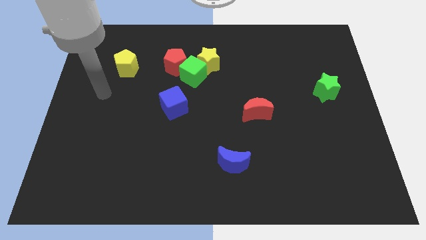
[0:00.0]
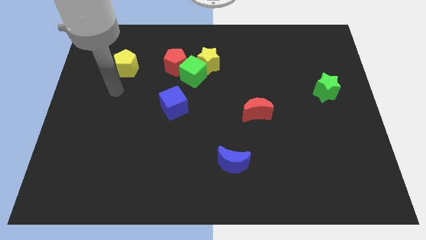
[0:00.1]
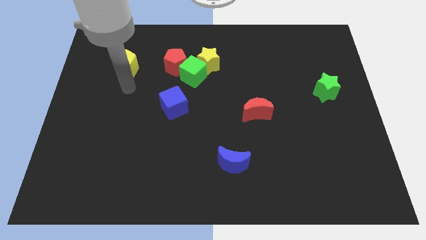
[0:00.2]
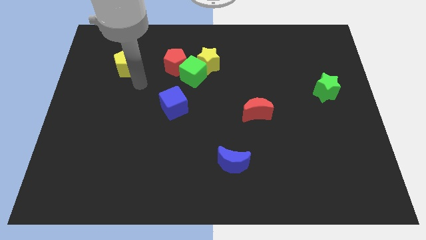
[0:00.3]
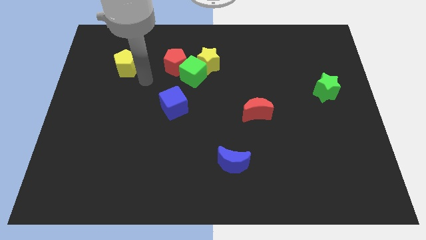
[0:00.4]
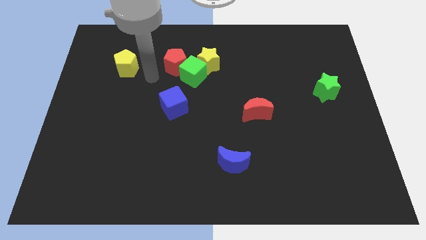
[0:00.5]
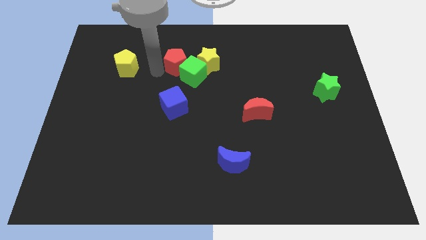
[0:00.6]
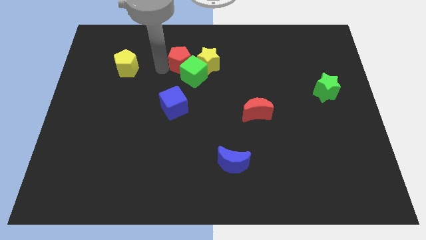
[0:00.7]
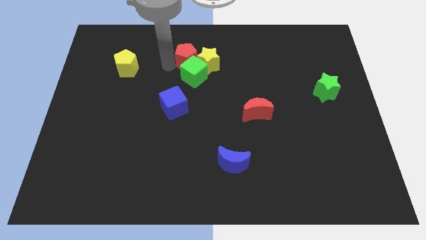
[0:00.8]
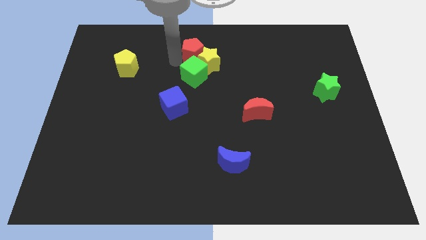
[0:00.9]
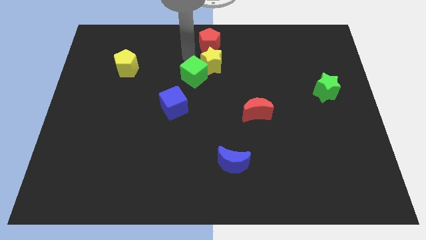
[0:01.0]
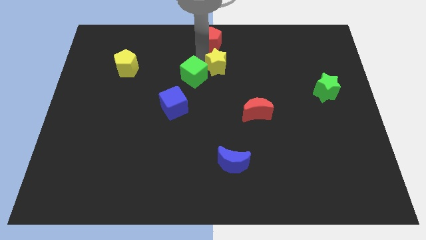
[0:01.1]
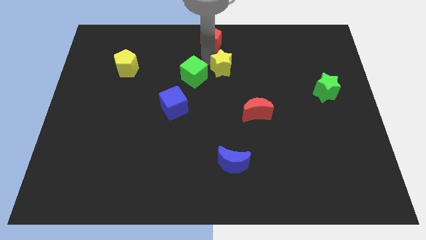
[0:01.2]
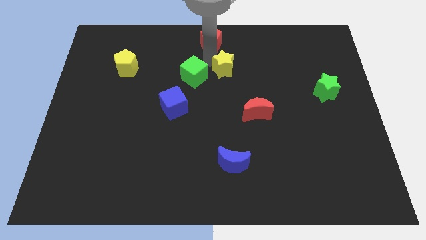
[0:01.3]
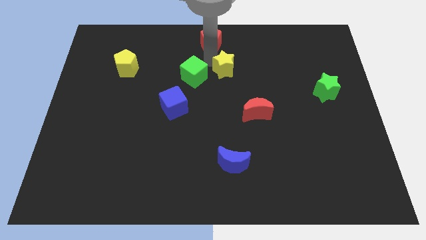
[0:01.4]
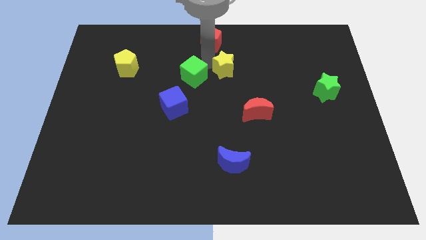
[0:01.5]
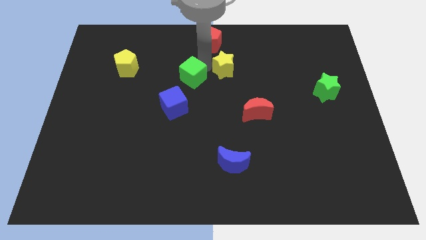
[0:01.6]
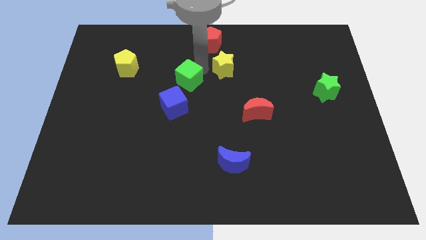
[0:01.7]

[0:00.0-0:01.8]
move the green cube away from the yellow star and red pentagon

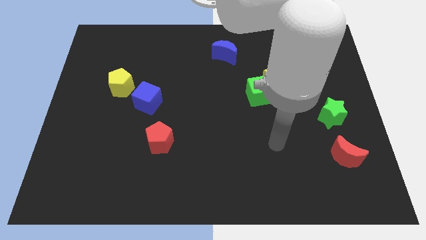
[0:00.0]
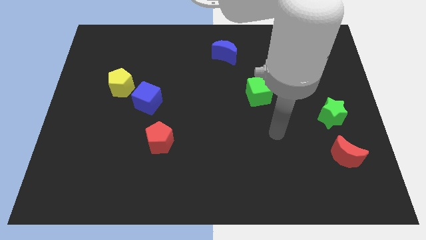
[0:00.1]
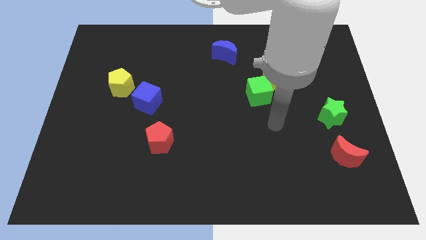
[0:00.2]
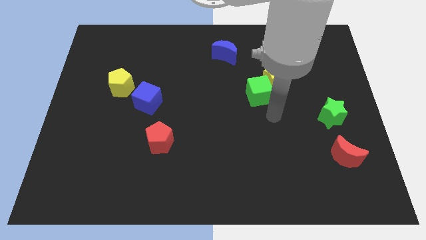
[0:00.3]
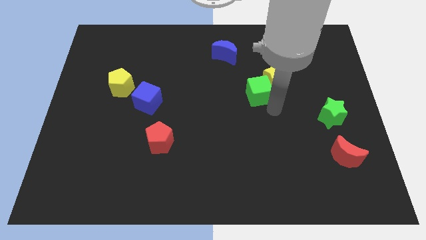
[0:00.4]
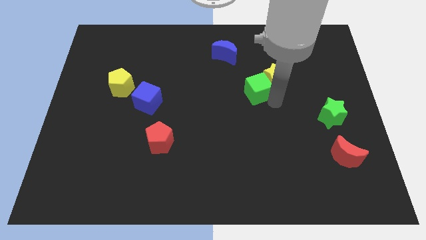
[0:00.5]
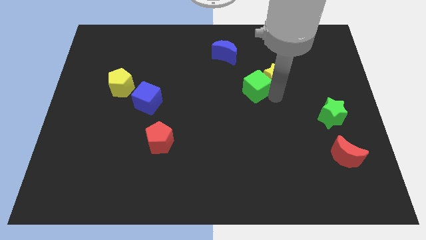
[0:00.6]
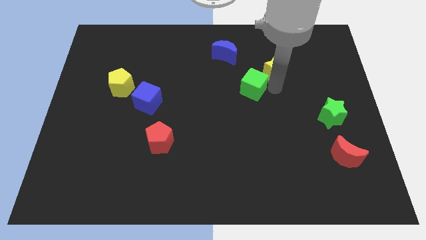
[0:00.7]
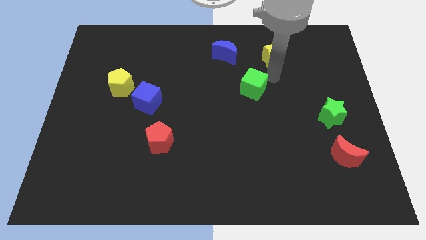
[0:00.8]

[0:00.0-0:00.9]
separate the green cube from the yellow star

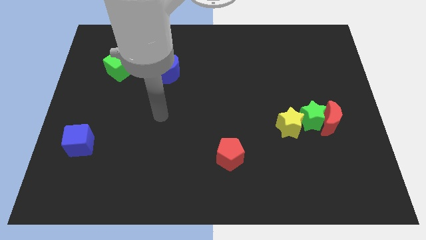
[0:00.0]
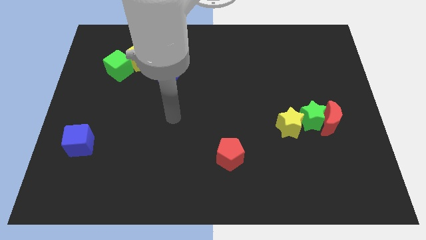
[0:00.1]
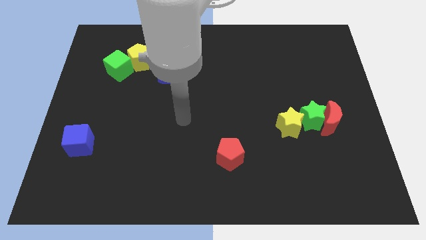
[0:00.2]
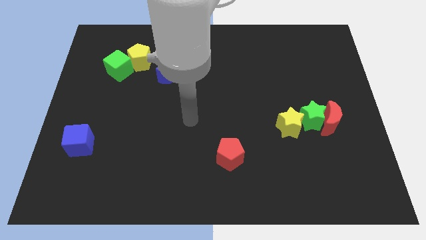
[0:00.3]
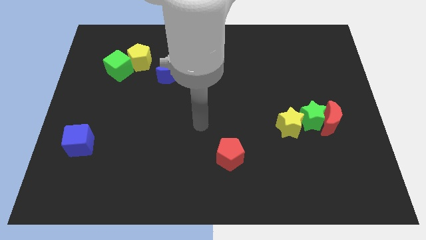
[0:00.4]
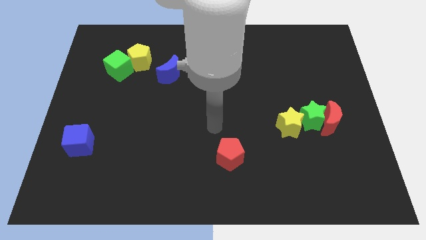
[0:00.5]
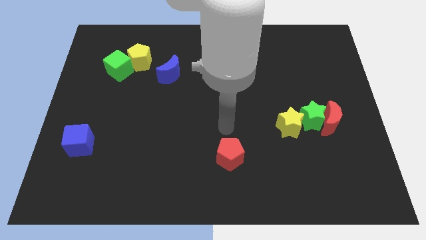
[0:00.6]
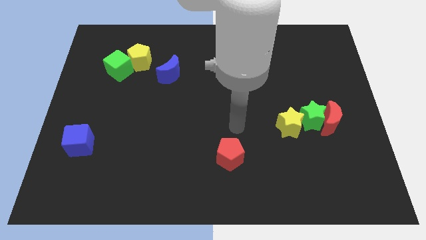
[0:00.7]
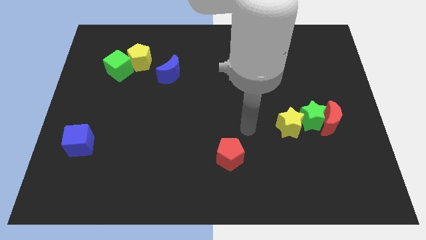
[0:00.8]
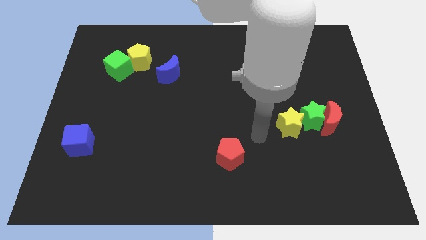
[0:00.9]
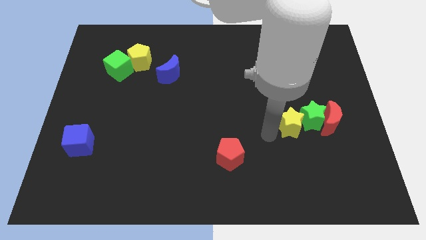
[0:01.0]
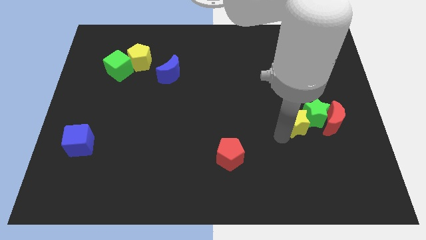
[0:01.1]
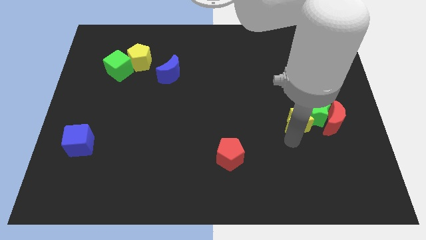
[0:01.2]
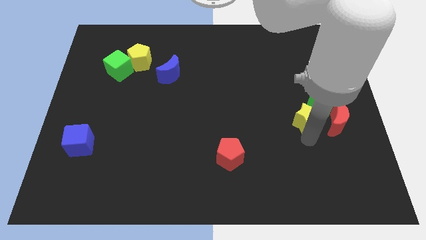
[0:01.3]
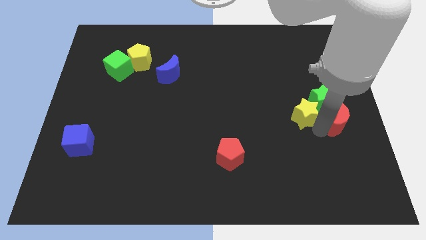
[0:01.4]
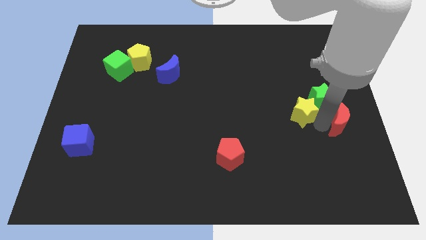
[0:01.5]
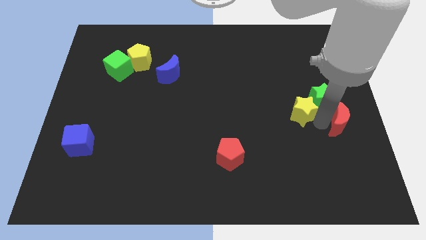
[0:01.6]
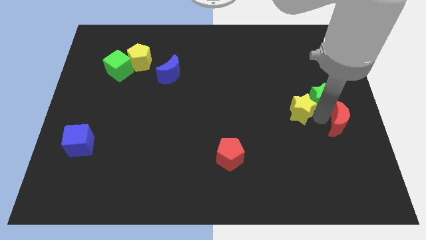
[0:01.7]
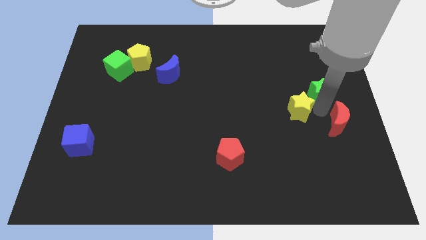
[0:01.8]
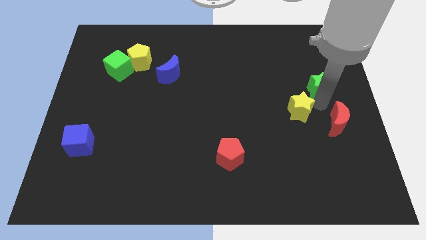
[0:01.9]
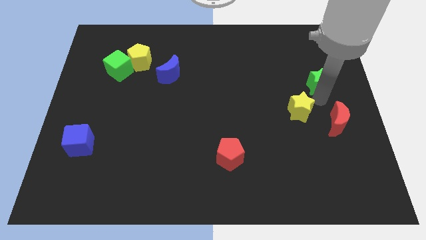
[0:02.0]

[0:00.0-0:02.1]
pull the green star apart from the red moon and yellow star

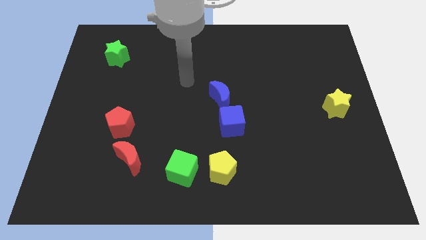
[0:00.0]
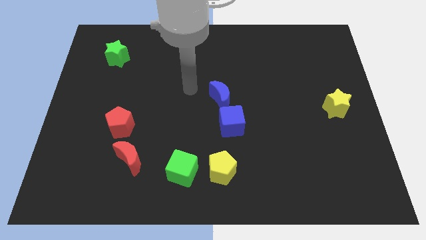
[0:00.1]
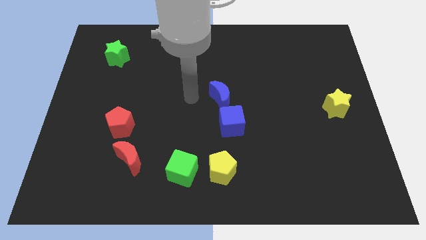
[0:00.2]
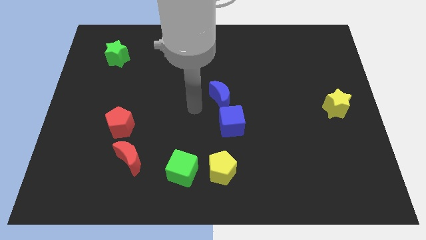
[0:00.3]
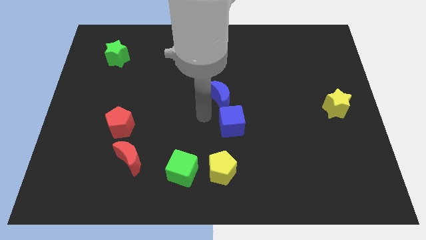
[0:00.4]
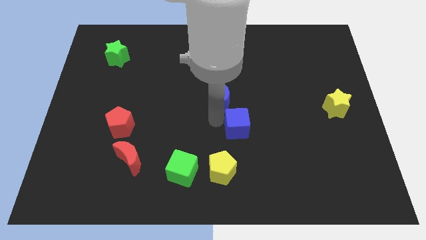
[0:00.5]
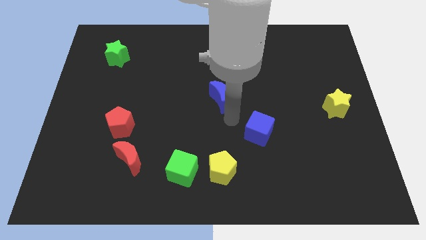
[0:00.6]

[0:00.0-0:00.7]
separate the blue moon from the blue cube

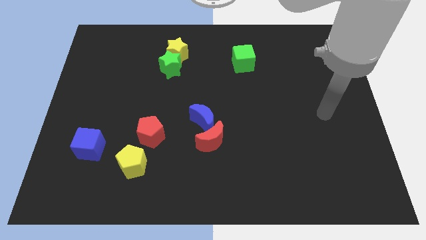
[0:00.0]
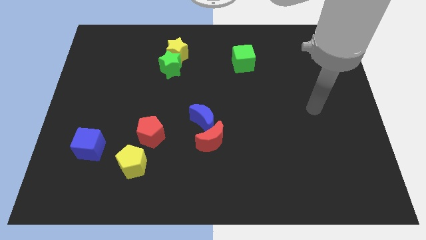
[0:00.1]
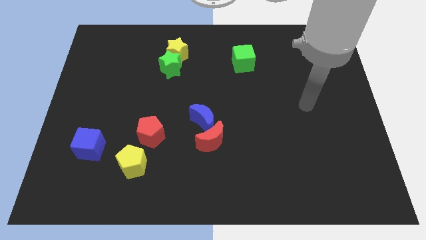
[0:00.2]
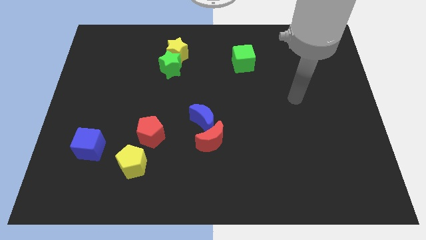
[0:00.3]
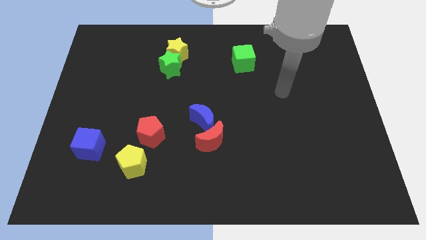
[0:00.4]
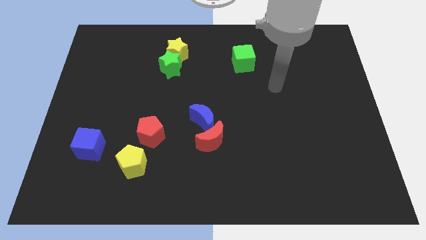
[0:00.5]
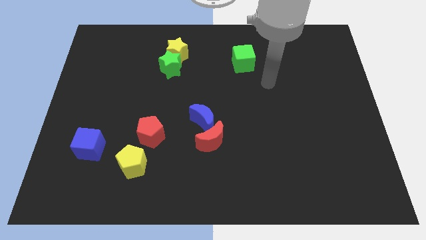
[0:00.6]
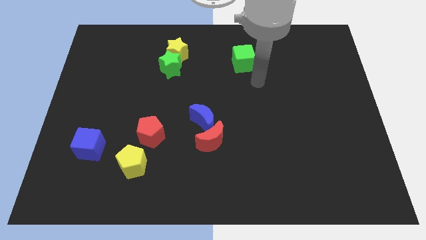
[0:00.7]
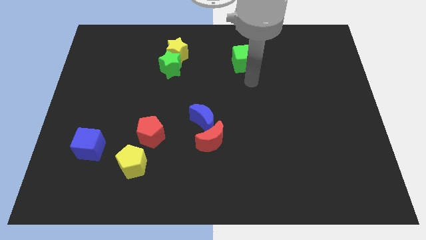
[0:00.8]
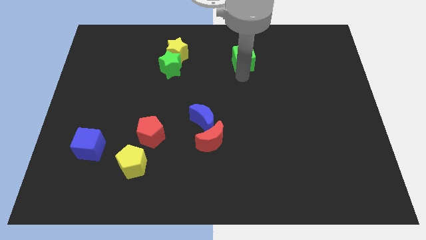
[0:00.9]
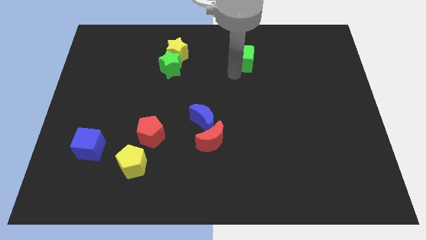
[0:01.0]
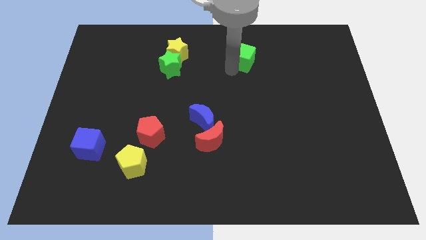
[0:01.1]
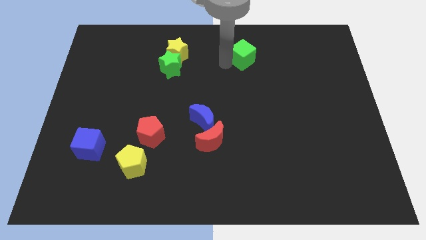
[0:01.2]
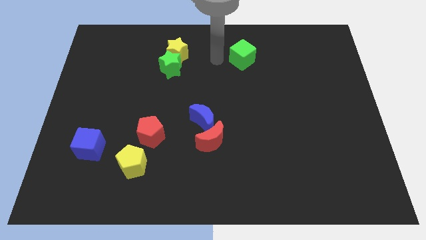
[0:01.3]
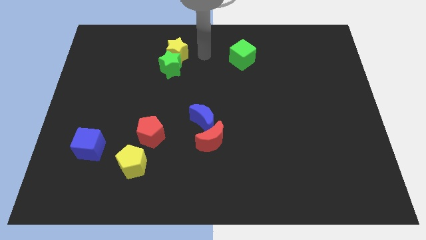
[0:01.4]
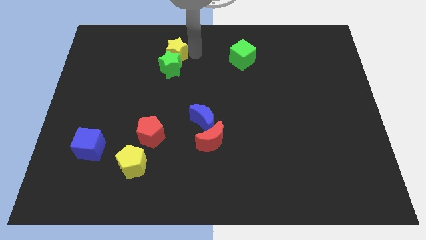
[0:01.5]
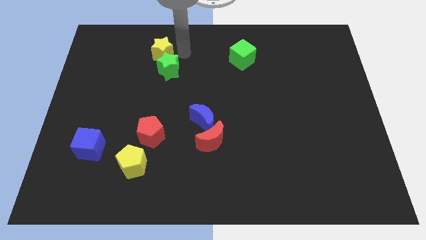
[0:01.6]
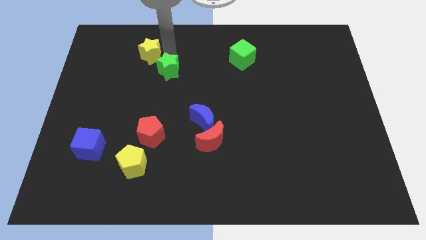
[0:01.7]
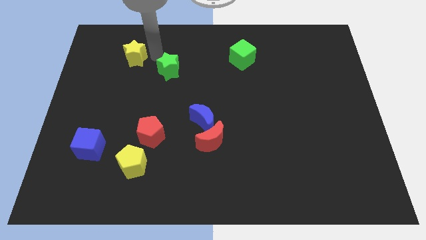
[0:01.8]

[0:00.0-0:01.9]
move the green star away from the yellow star

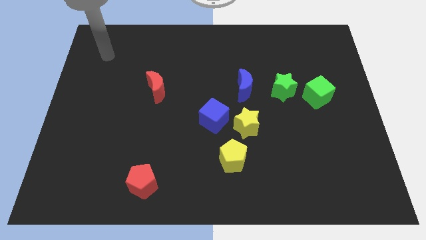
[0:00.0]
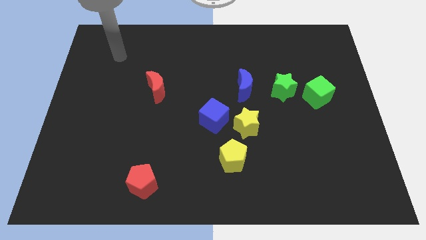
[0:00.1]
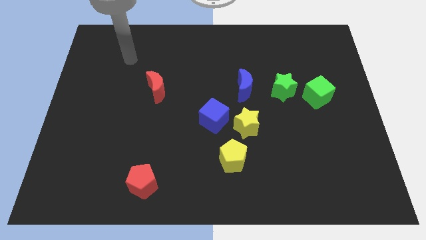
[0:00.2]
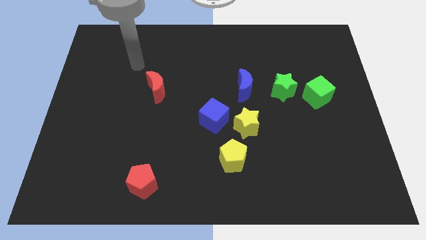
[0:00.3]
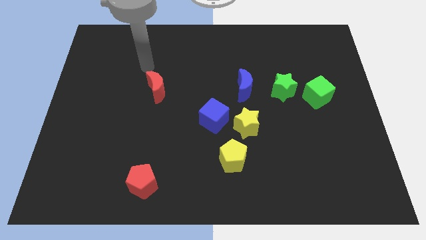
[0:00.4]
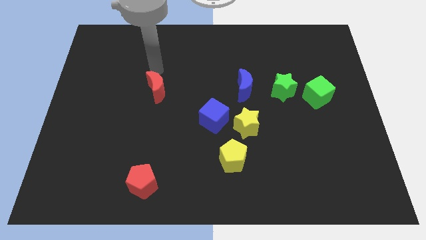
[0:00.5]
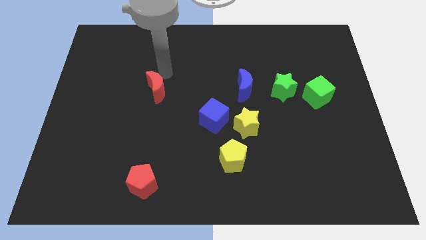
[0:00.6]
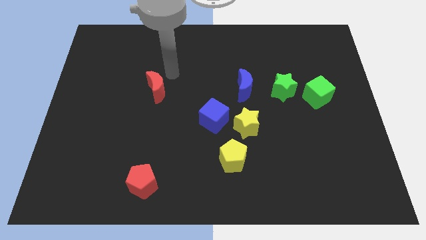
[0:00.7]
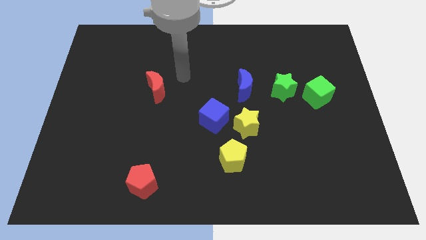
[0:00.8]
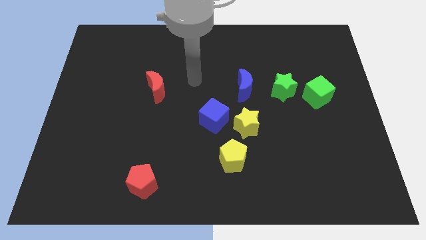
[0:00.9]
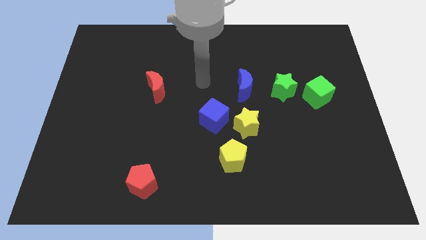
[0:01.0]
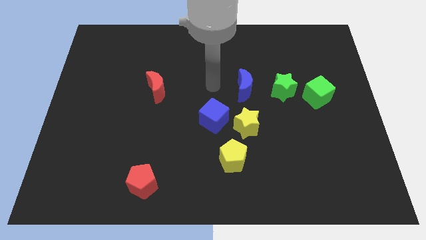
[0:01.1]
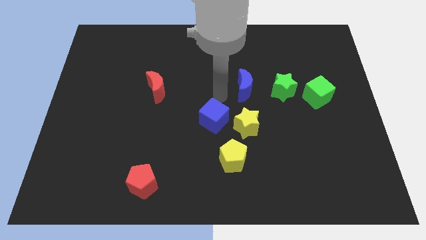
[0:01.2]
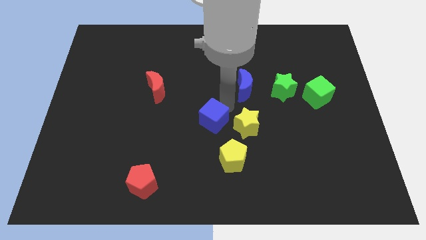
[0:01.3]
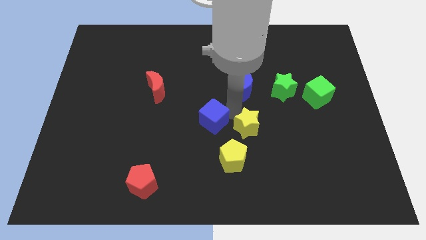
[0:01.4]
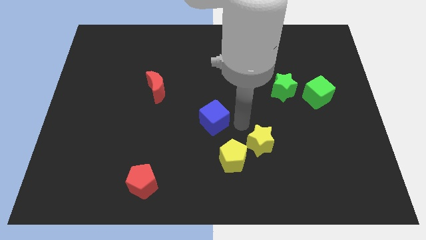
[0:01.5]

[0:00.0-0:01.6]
separate the blue cube from the yellow star

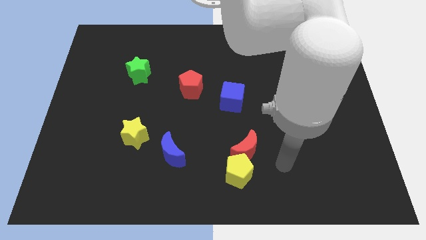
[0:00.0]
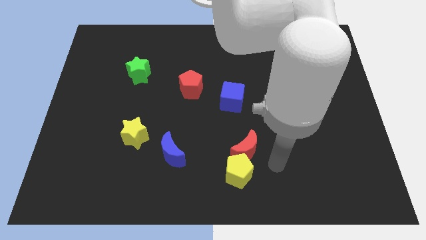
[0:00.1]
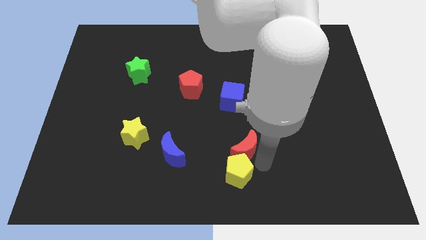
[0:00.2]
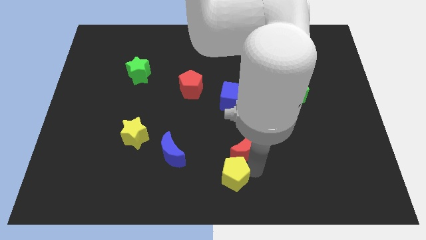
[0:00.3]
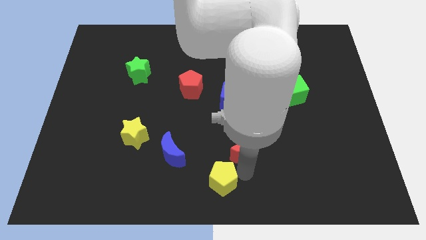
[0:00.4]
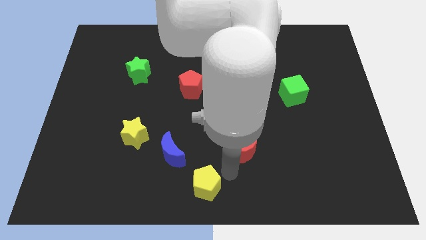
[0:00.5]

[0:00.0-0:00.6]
separate the red moon from the yellow pentagon
